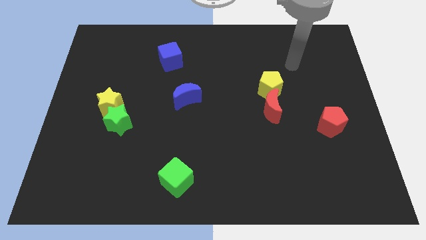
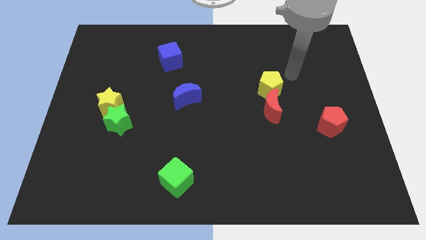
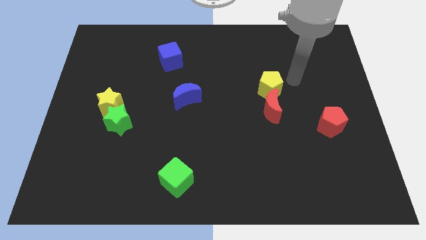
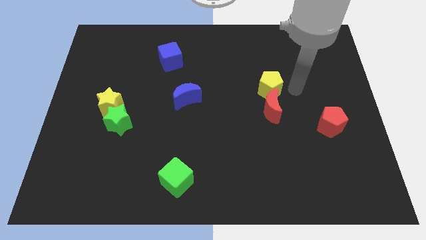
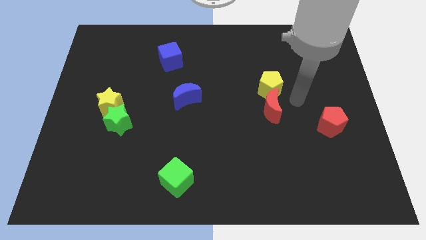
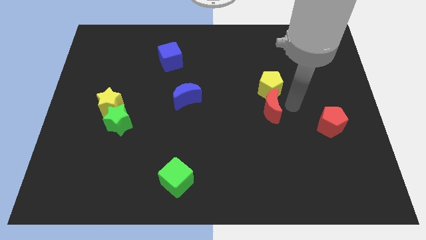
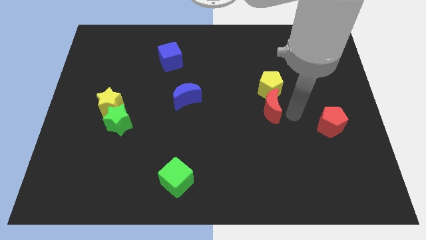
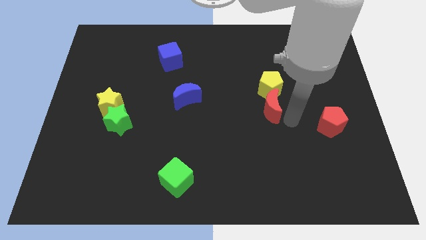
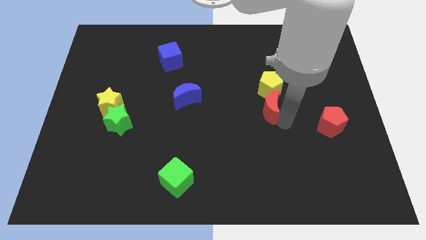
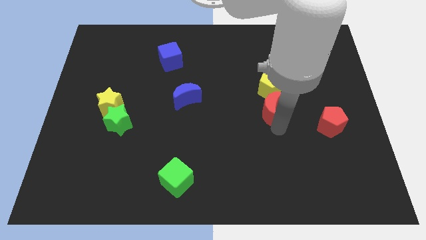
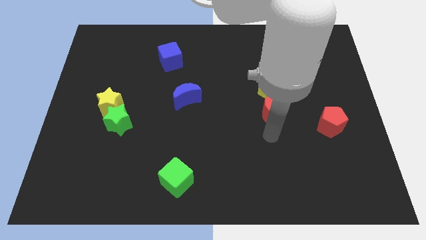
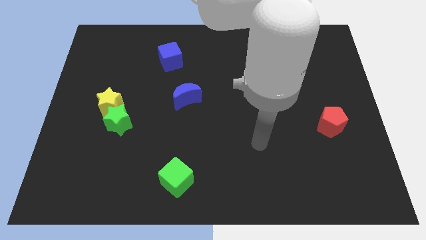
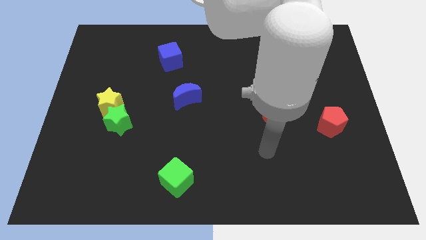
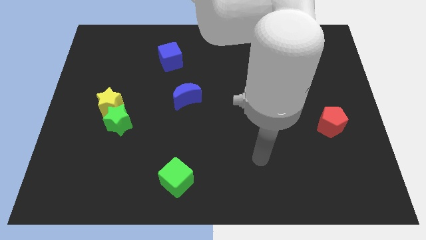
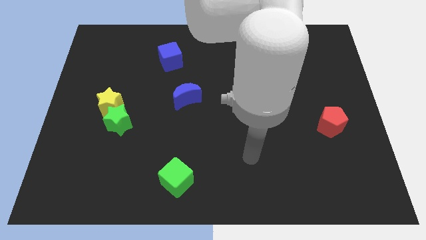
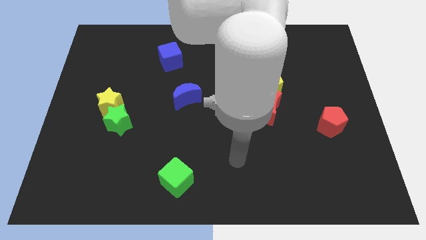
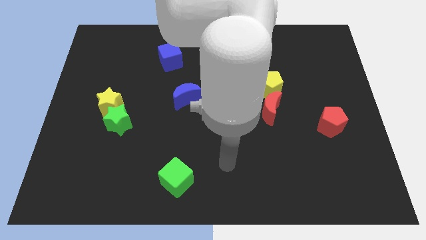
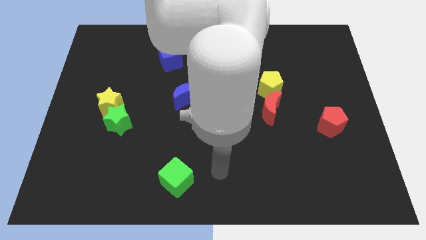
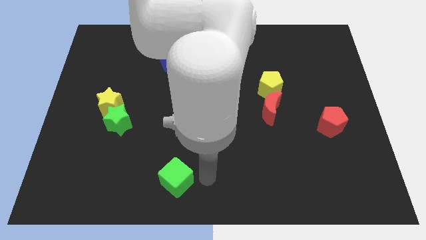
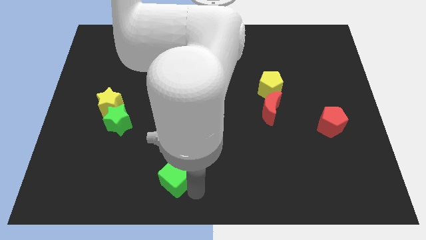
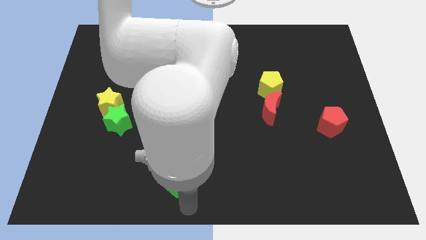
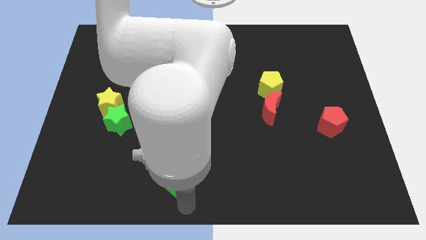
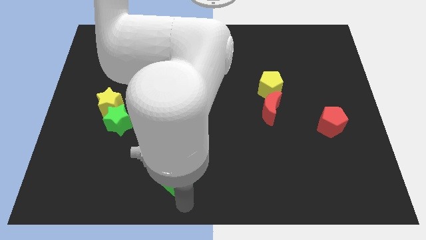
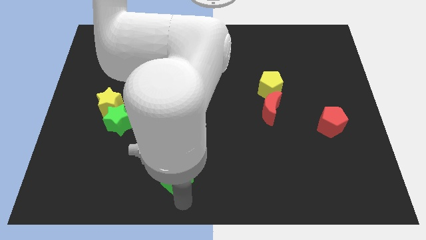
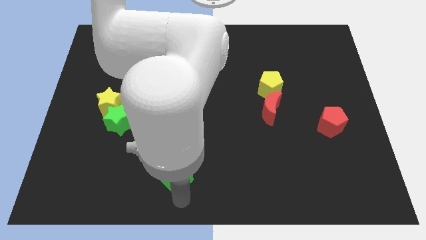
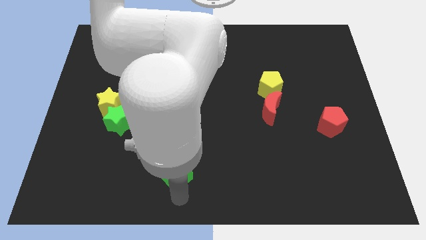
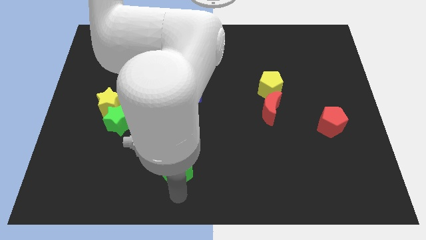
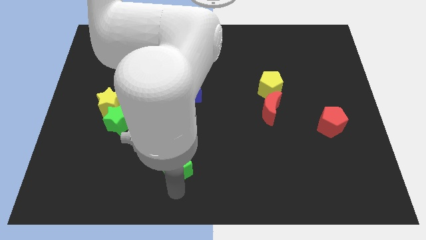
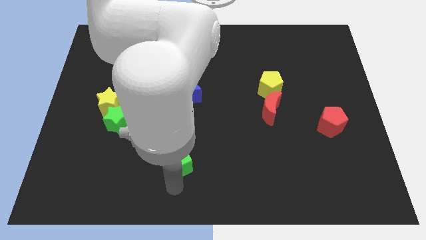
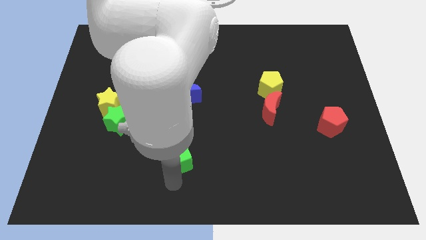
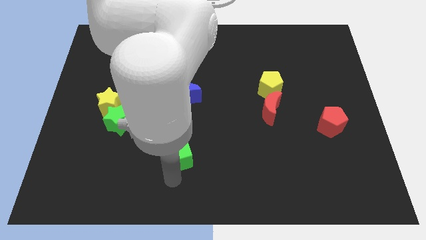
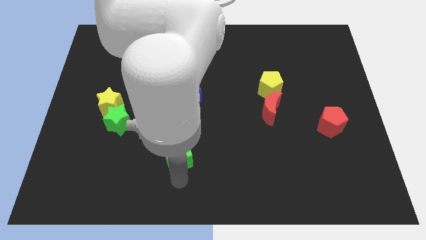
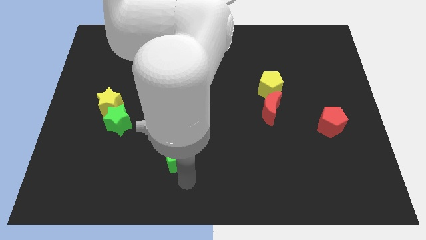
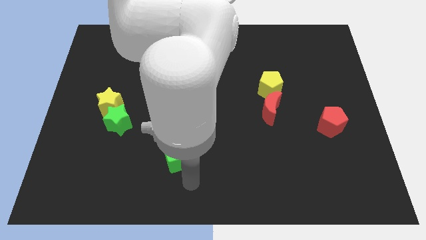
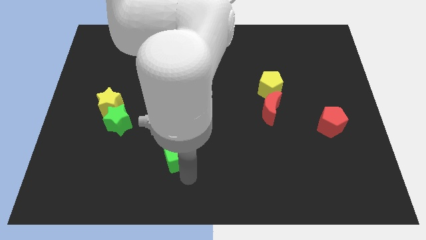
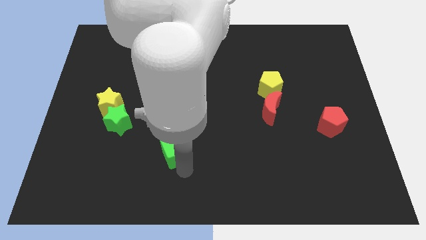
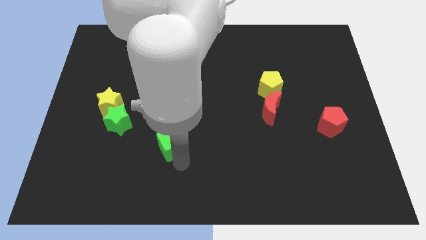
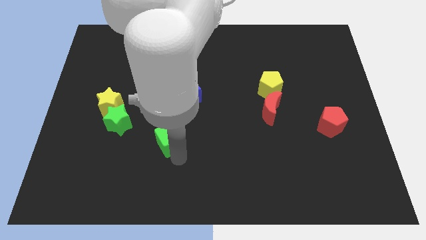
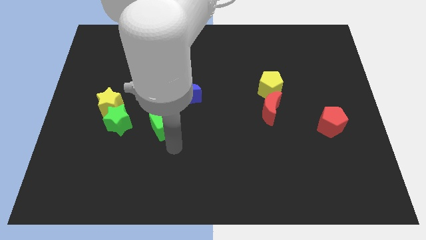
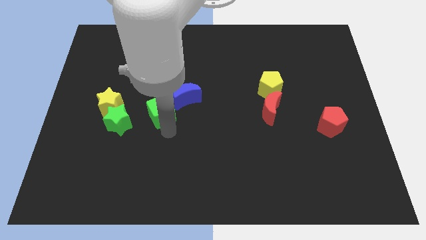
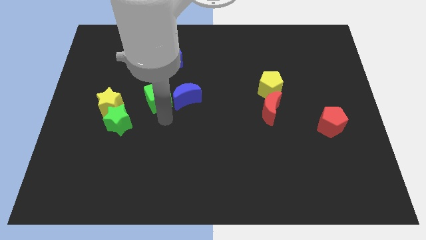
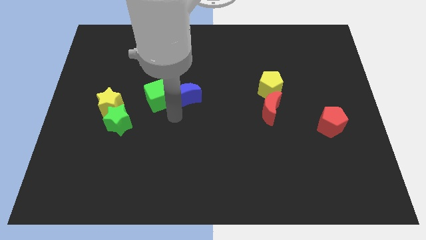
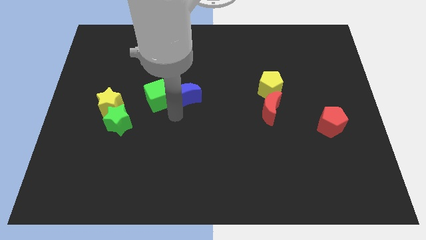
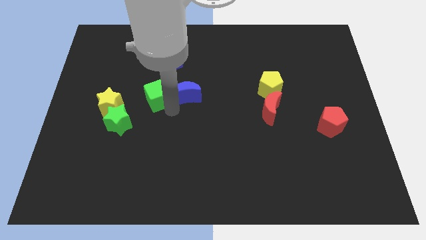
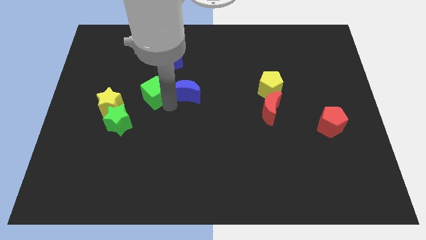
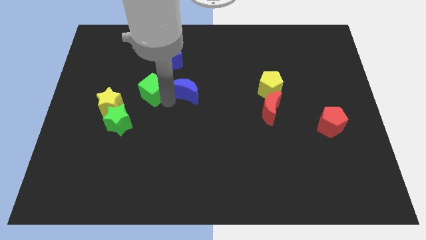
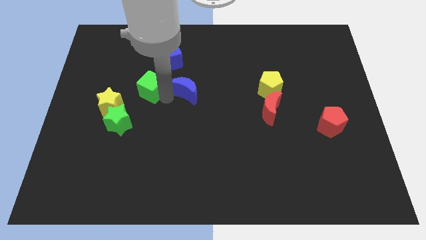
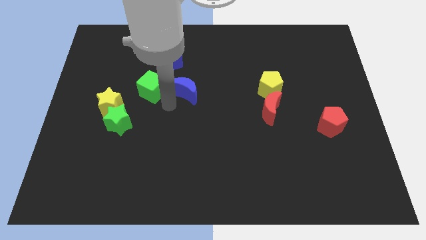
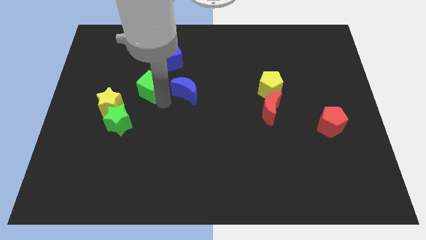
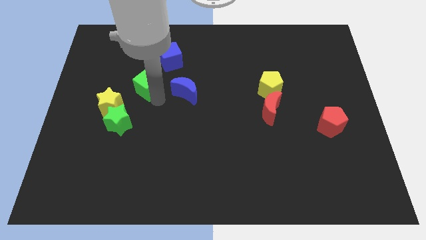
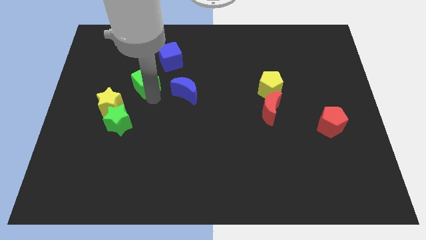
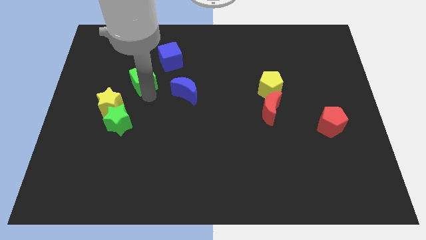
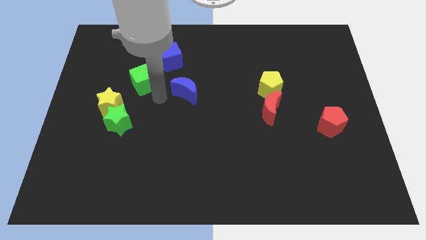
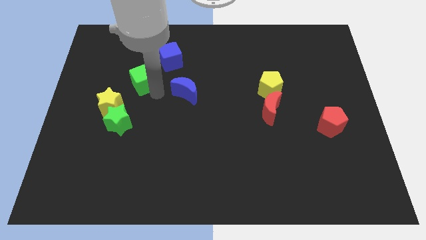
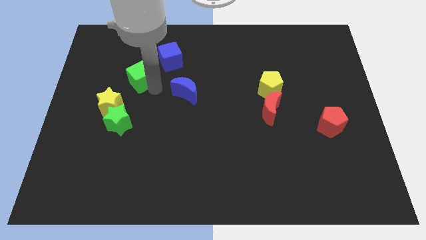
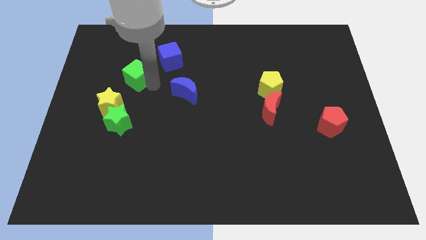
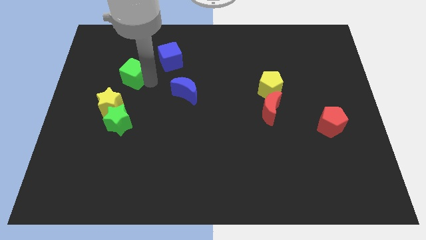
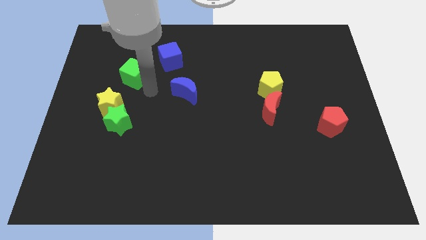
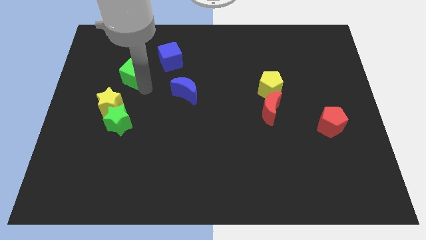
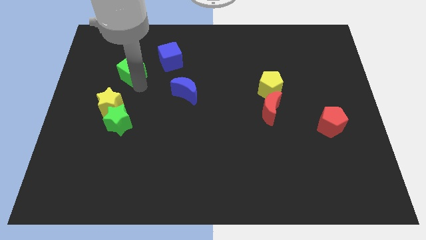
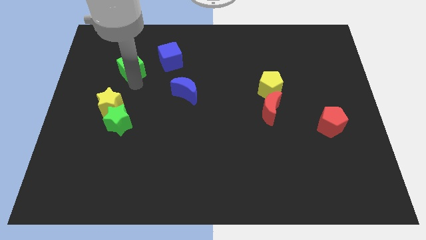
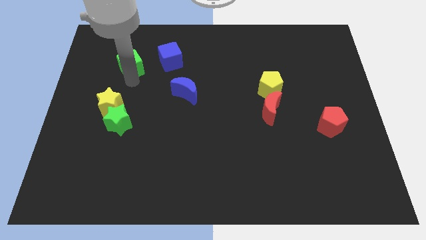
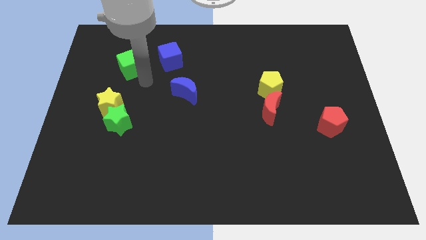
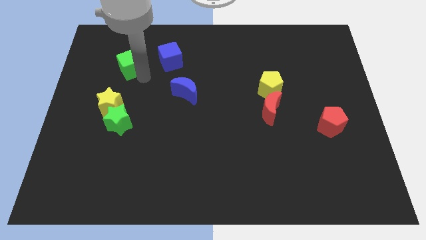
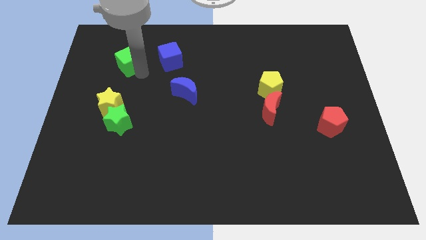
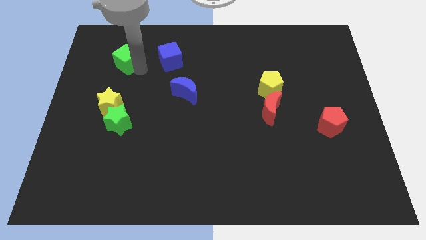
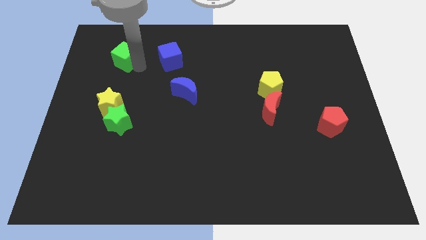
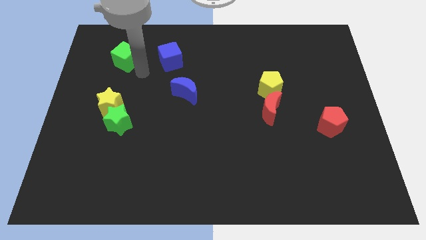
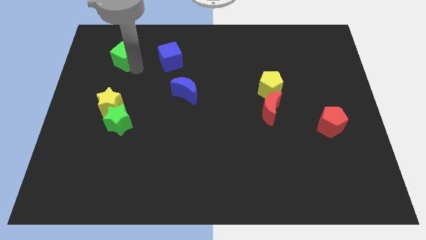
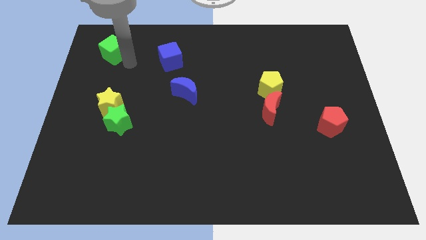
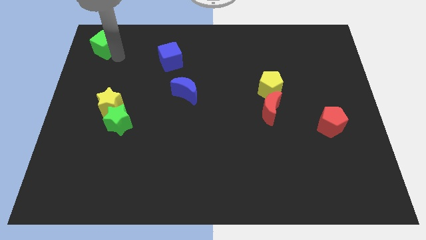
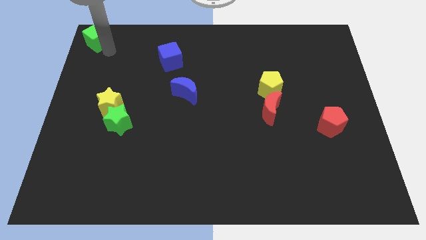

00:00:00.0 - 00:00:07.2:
move the green cube to the top left corner

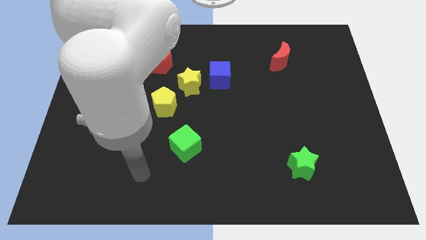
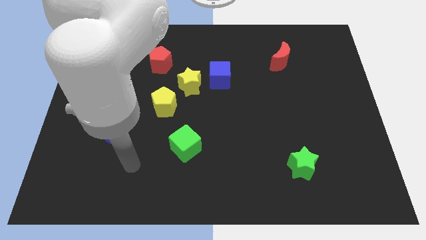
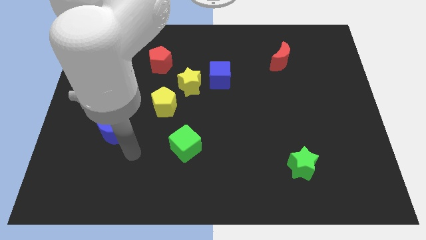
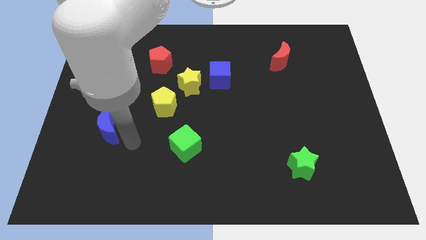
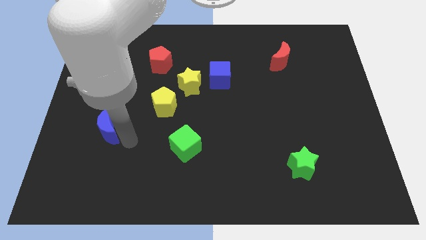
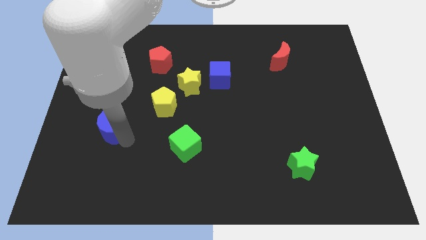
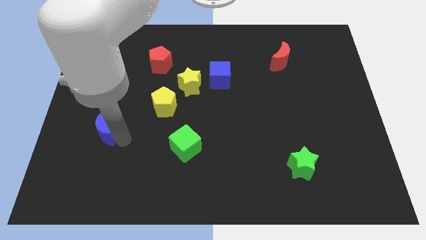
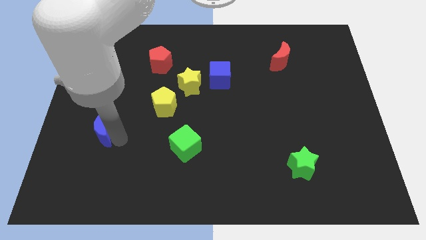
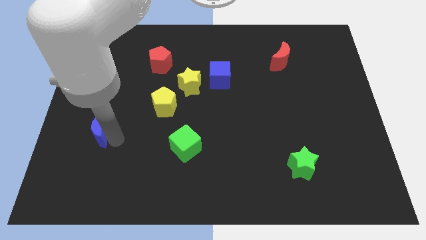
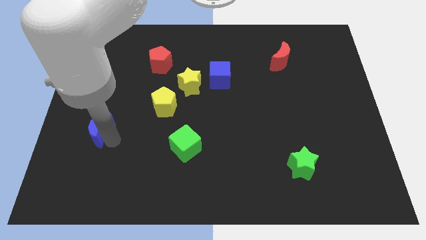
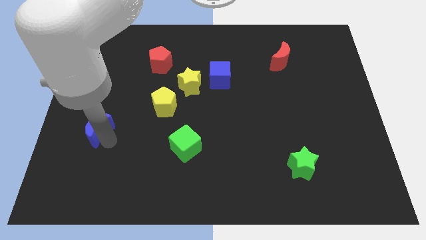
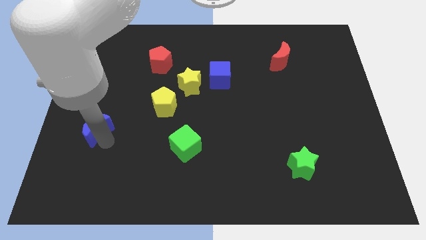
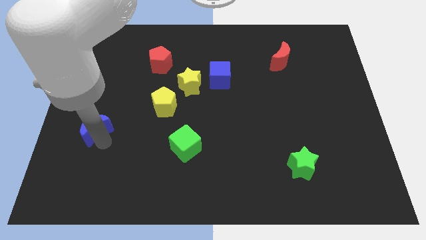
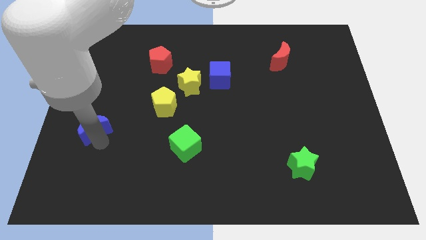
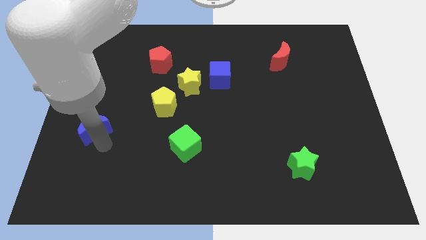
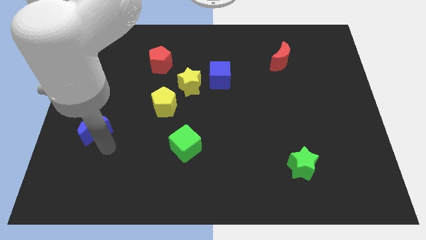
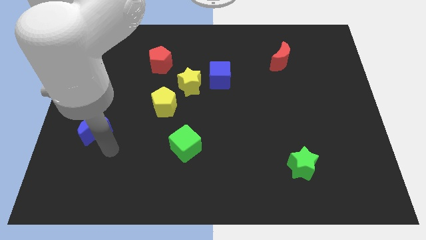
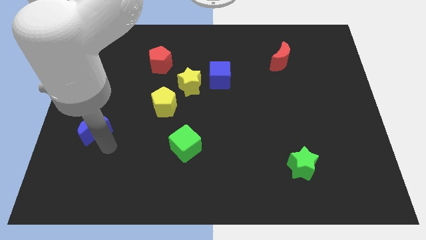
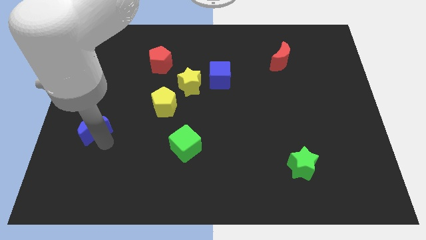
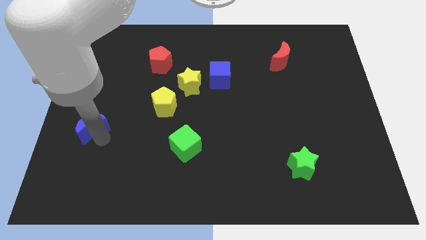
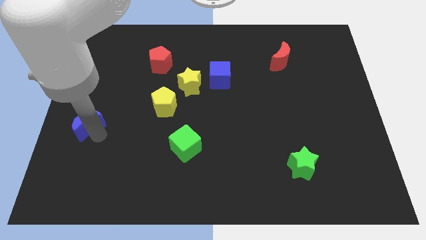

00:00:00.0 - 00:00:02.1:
move the blue moon to the left side of the board
